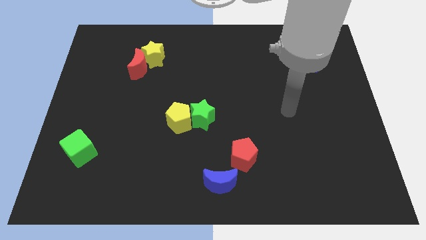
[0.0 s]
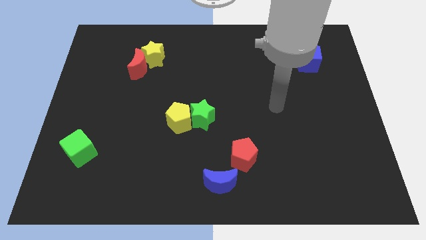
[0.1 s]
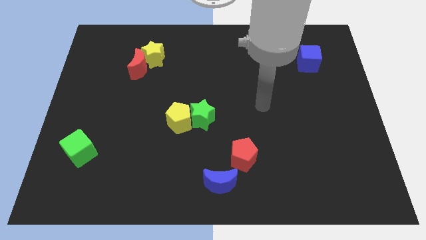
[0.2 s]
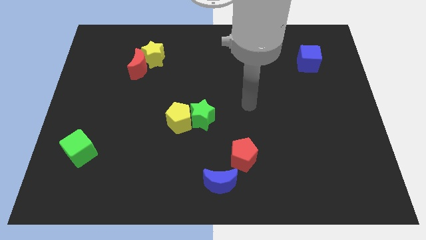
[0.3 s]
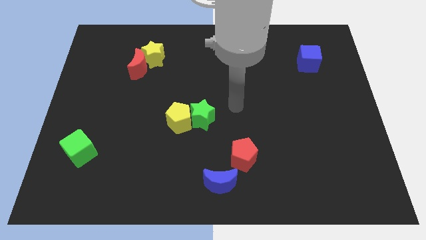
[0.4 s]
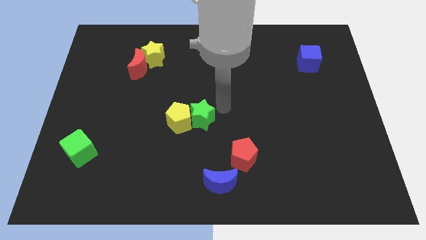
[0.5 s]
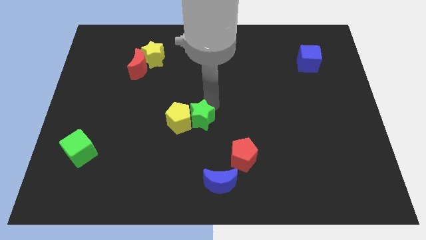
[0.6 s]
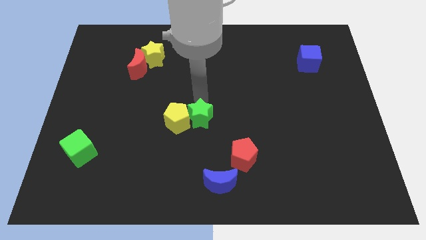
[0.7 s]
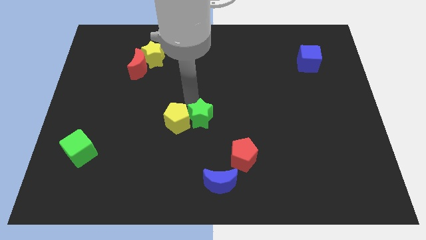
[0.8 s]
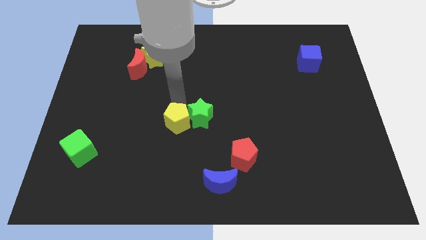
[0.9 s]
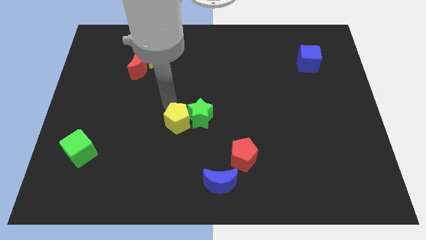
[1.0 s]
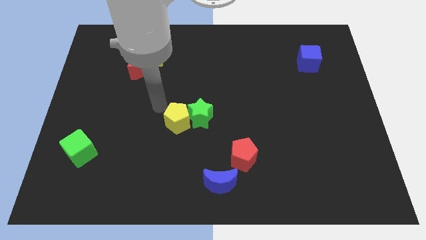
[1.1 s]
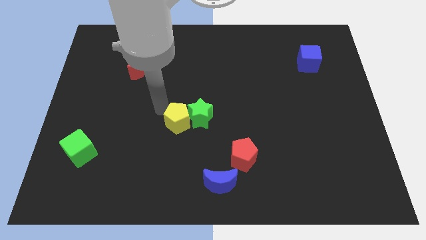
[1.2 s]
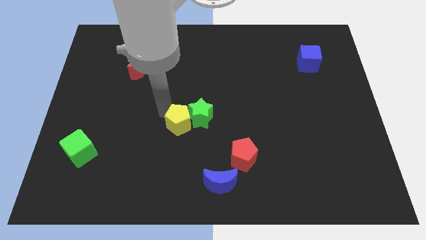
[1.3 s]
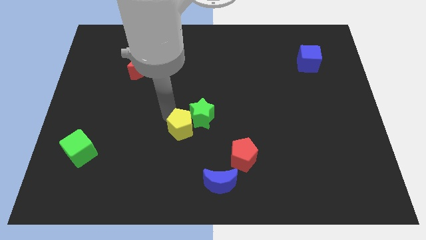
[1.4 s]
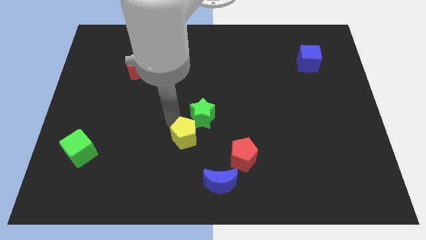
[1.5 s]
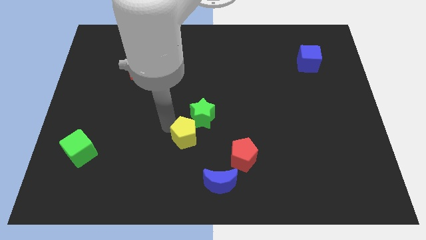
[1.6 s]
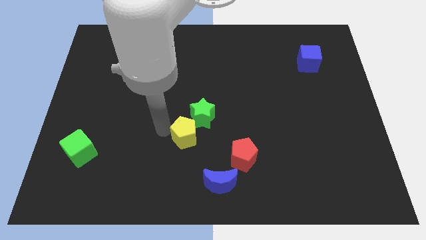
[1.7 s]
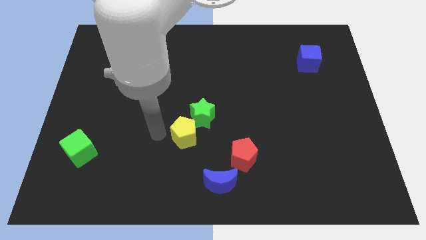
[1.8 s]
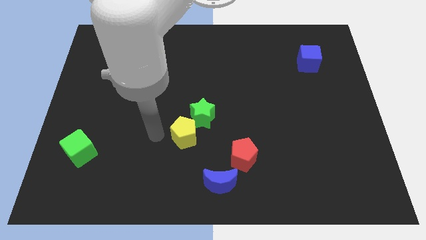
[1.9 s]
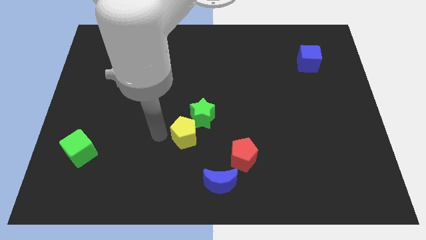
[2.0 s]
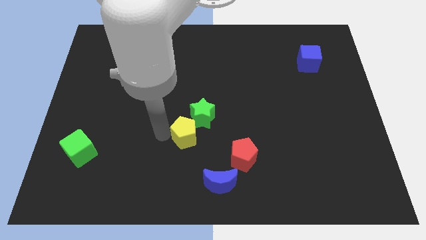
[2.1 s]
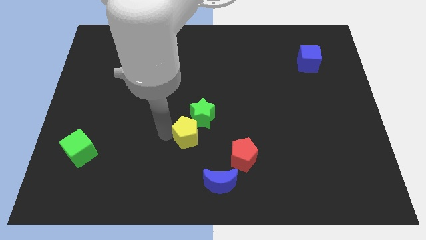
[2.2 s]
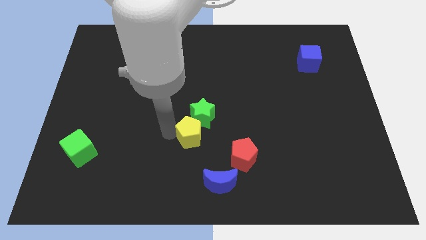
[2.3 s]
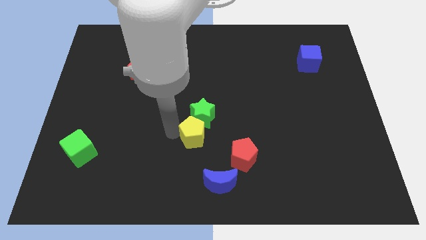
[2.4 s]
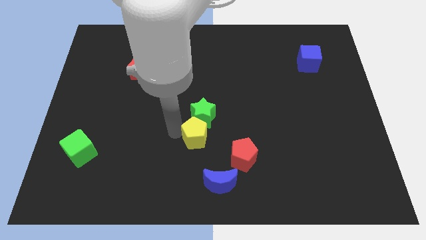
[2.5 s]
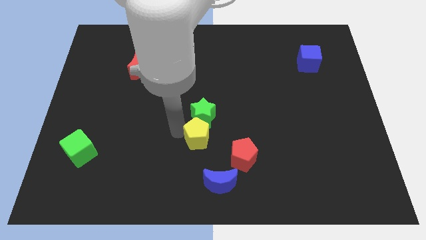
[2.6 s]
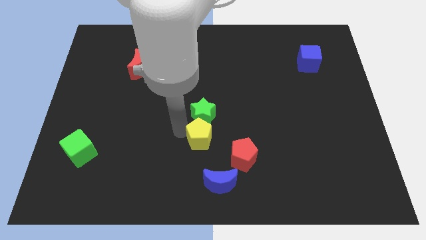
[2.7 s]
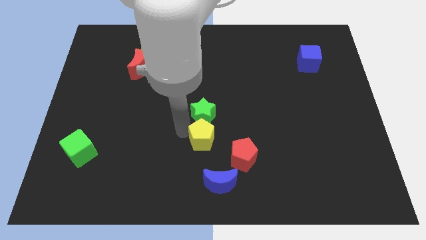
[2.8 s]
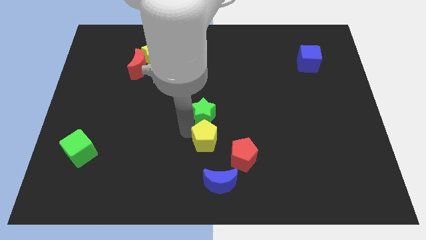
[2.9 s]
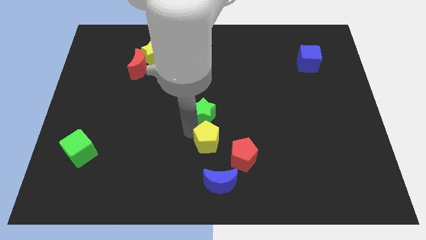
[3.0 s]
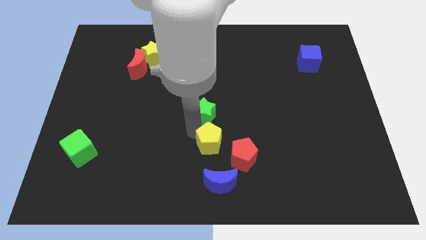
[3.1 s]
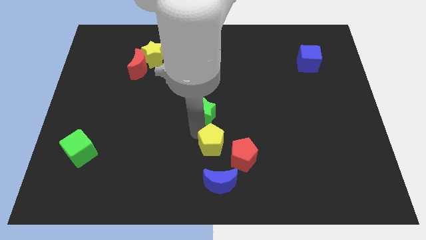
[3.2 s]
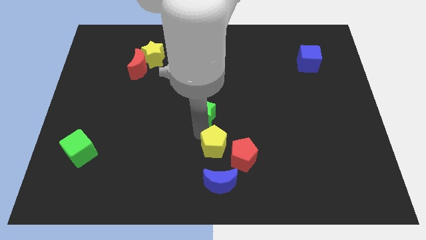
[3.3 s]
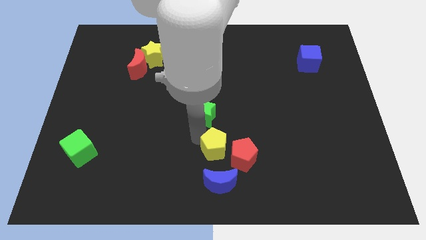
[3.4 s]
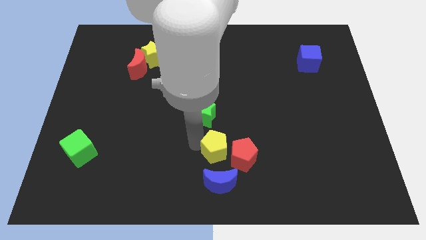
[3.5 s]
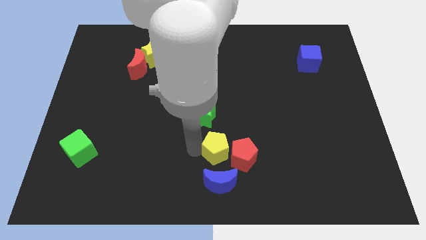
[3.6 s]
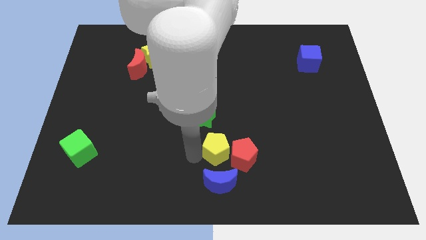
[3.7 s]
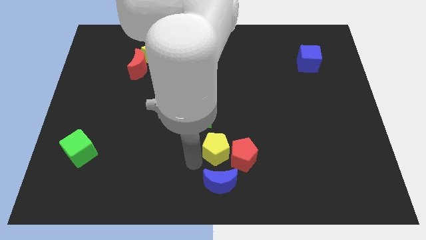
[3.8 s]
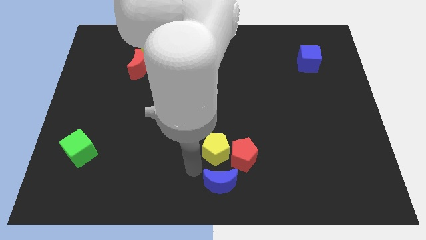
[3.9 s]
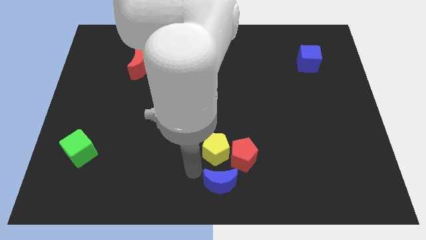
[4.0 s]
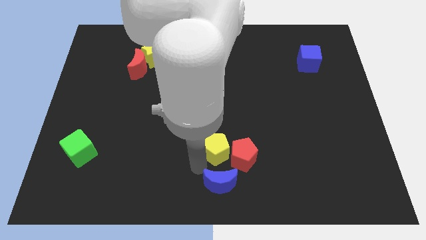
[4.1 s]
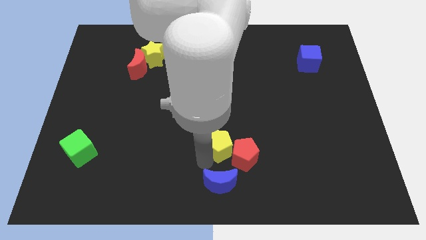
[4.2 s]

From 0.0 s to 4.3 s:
push the yellow pentagon to the right a bit

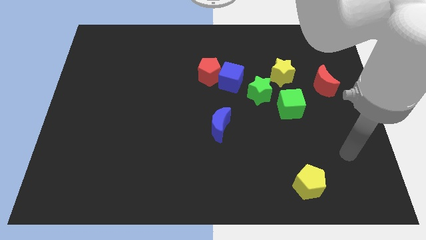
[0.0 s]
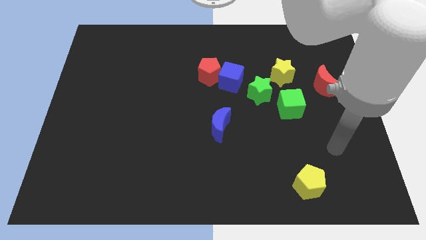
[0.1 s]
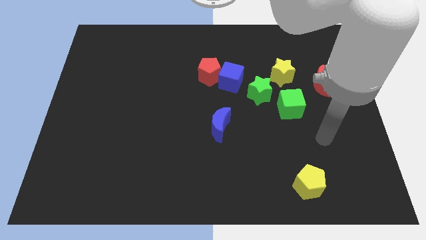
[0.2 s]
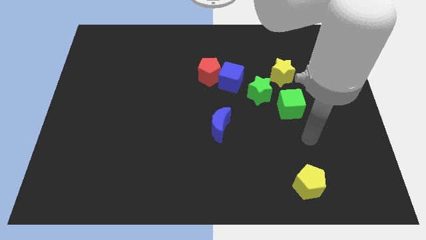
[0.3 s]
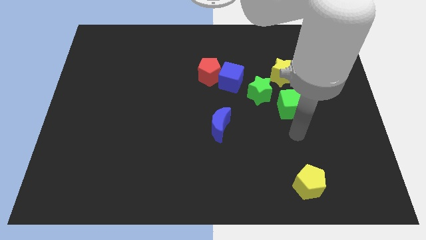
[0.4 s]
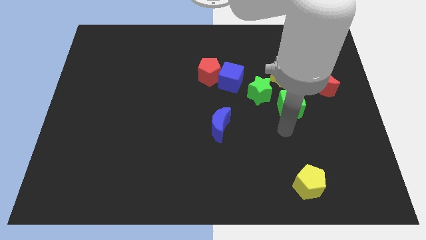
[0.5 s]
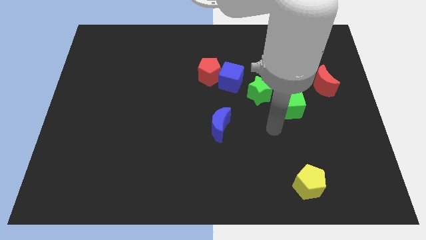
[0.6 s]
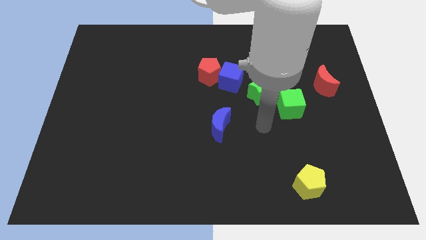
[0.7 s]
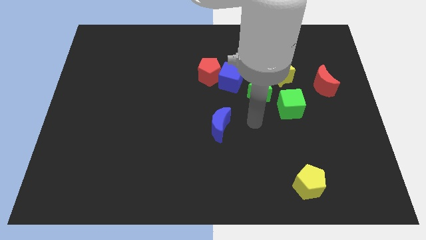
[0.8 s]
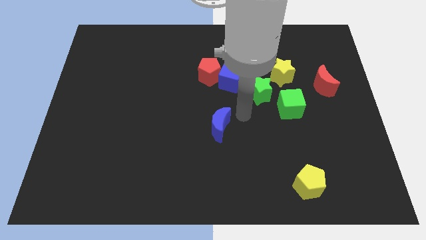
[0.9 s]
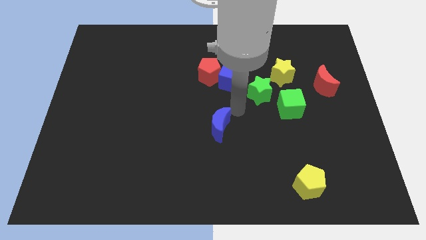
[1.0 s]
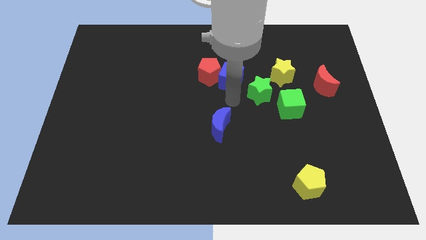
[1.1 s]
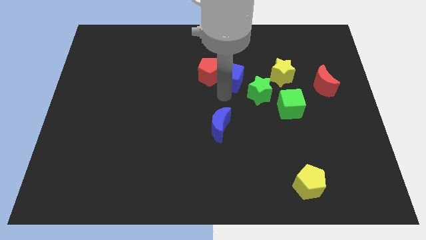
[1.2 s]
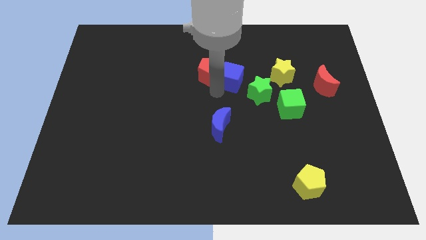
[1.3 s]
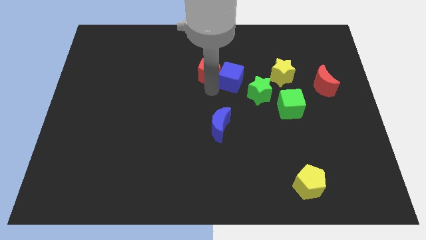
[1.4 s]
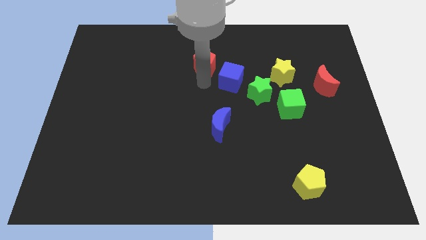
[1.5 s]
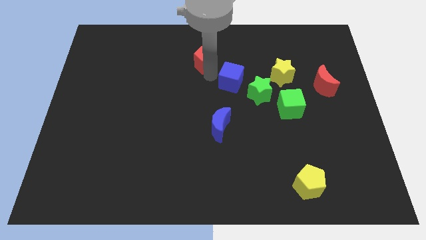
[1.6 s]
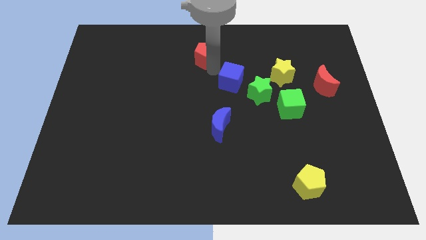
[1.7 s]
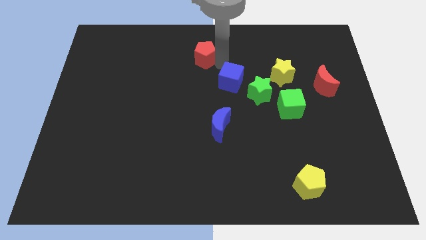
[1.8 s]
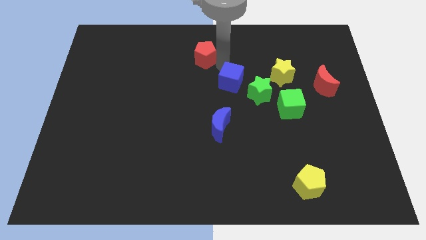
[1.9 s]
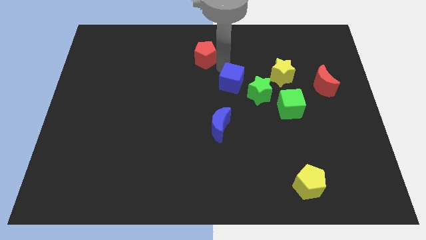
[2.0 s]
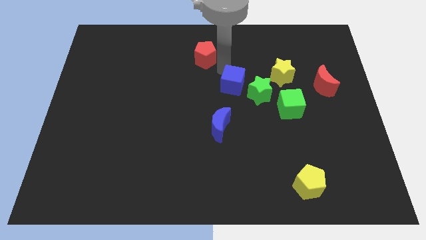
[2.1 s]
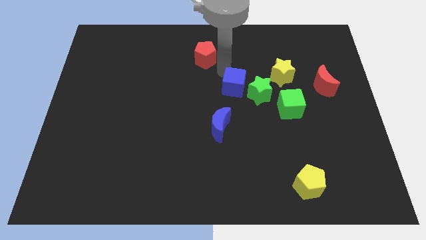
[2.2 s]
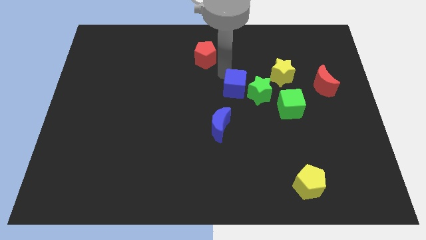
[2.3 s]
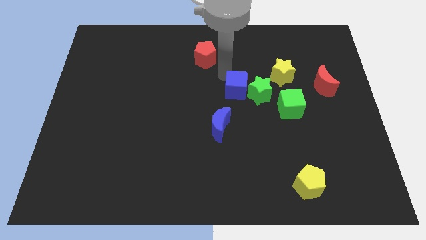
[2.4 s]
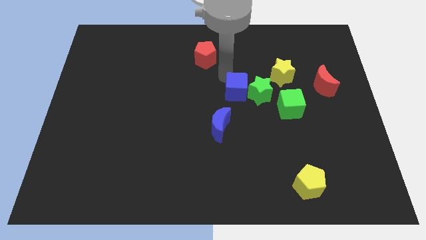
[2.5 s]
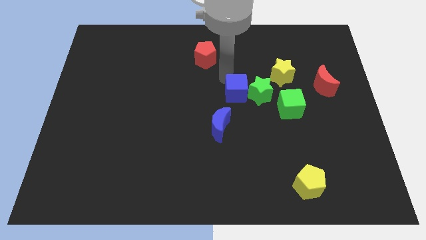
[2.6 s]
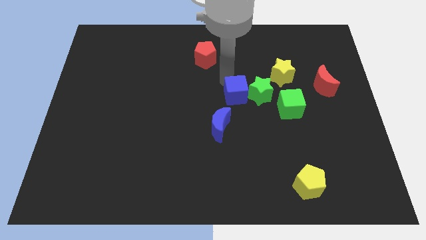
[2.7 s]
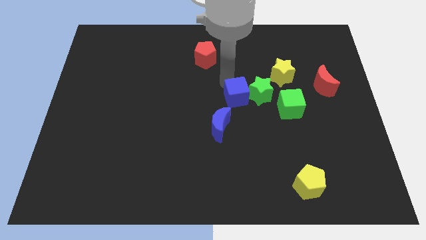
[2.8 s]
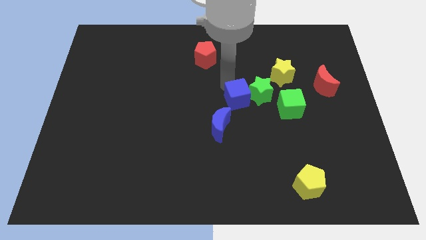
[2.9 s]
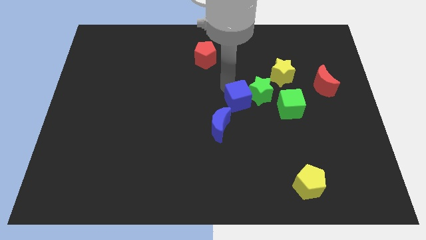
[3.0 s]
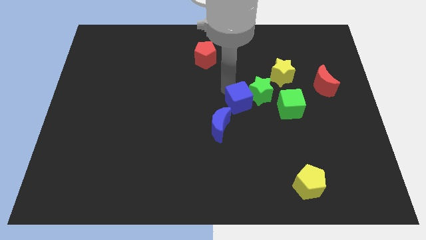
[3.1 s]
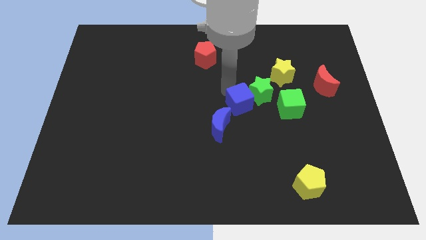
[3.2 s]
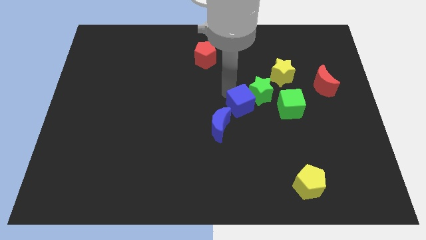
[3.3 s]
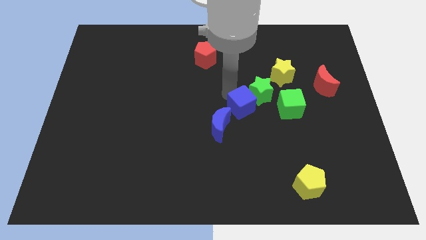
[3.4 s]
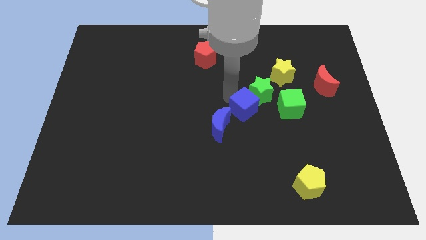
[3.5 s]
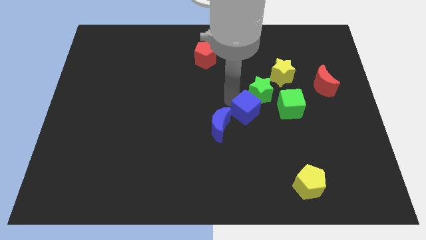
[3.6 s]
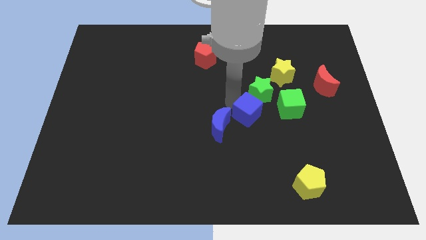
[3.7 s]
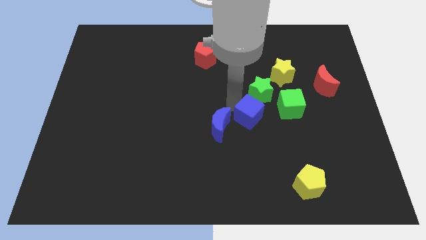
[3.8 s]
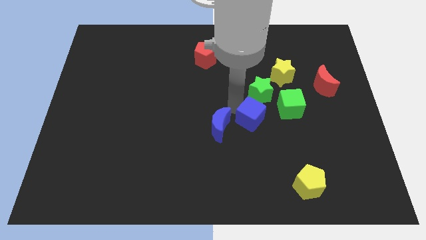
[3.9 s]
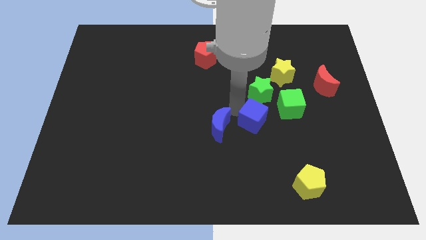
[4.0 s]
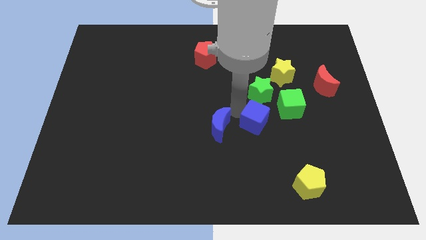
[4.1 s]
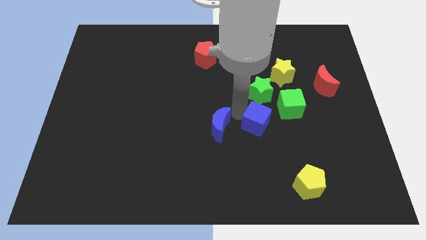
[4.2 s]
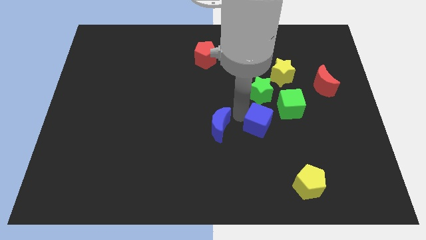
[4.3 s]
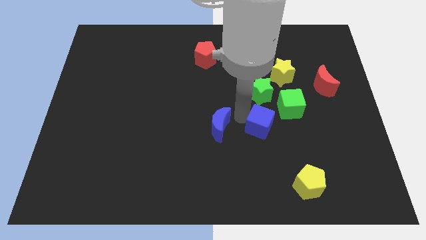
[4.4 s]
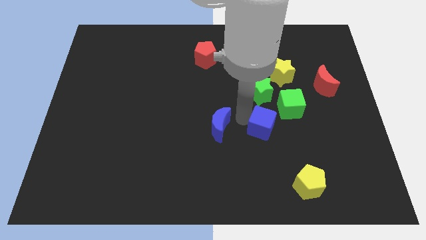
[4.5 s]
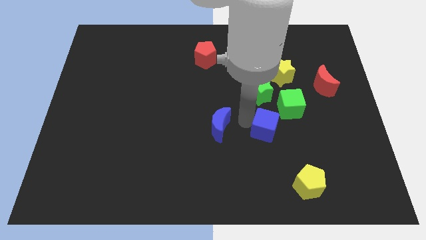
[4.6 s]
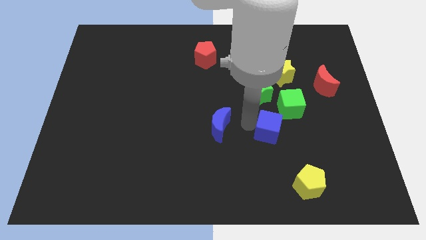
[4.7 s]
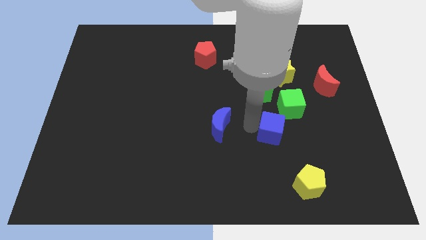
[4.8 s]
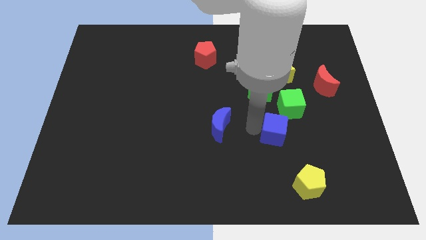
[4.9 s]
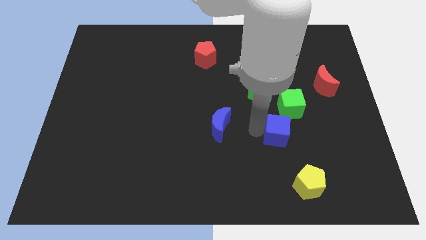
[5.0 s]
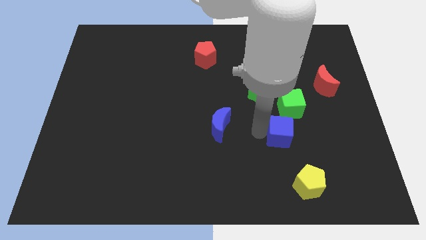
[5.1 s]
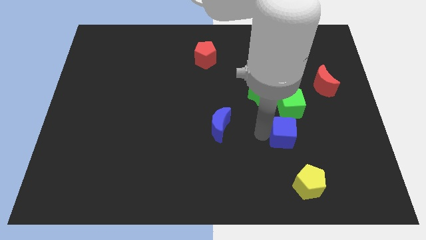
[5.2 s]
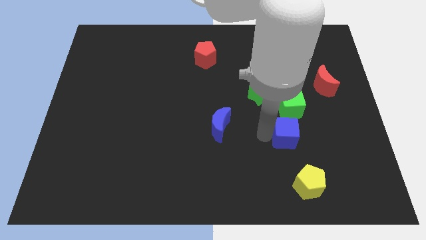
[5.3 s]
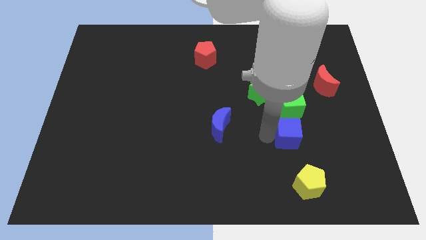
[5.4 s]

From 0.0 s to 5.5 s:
slide the blue cube diagonally down and to the right
